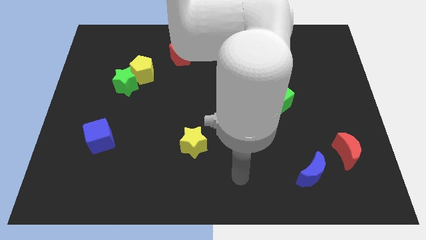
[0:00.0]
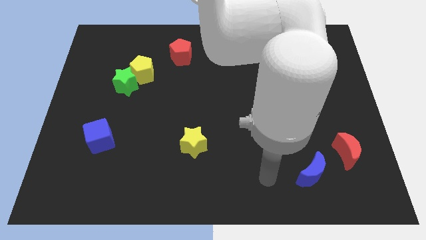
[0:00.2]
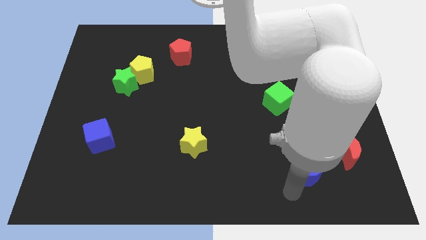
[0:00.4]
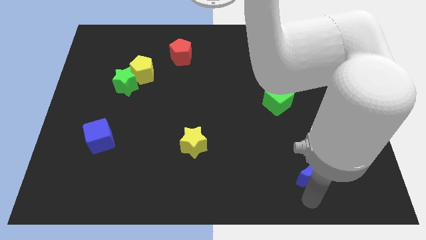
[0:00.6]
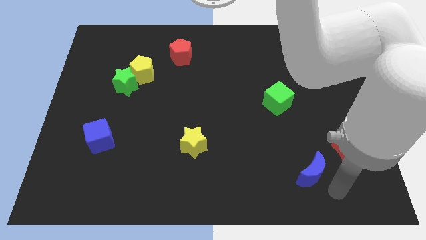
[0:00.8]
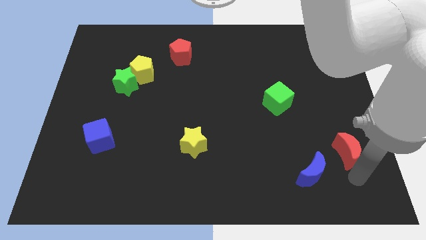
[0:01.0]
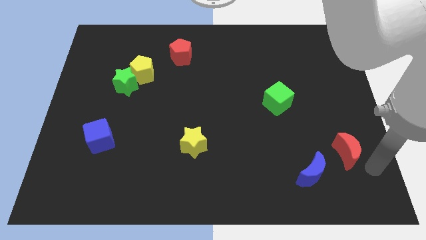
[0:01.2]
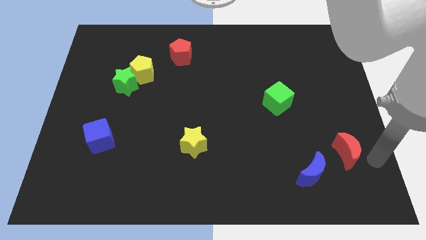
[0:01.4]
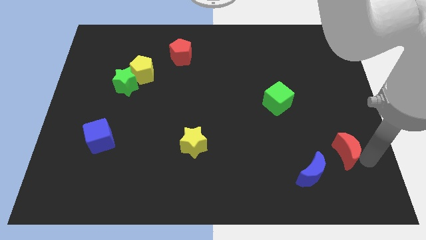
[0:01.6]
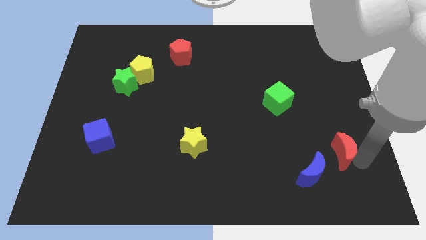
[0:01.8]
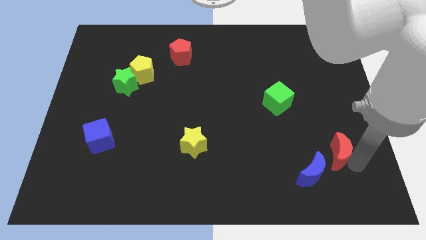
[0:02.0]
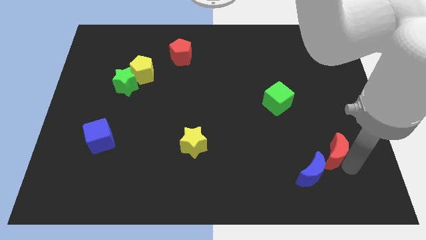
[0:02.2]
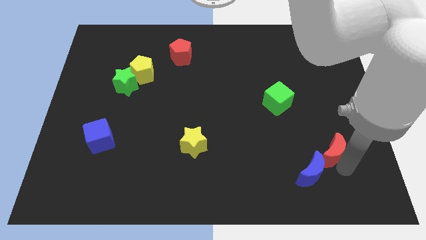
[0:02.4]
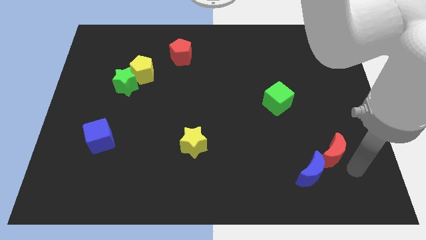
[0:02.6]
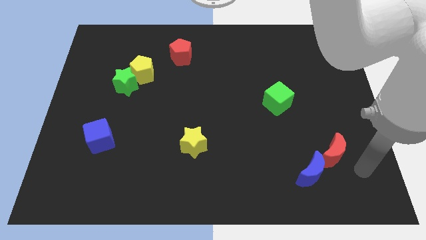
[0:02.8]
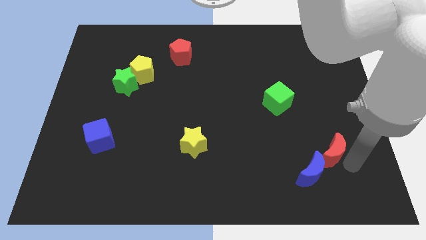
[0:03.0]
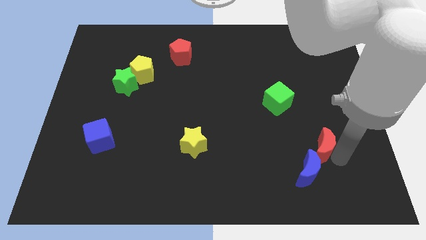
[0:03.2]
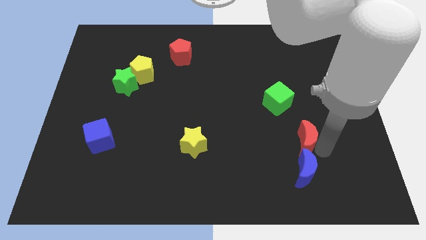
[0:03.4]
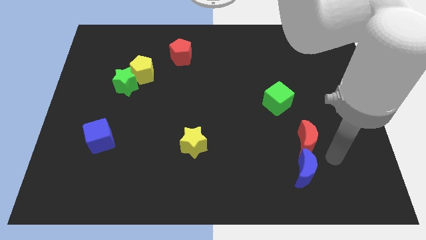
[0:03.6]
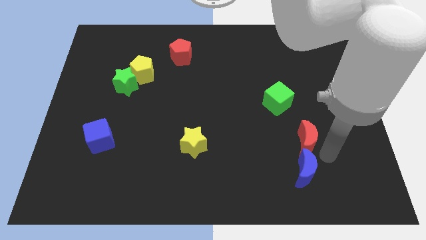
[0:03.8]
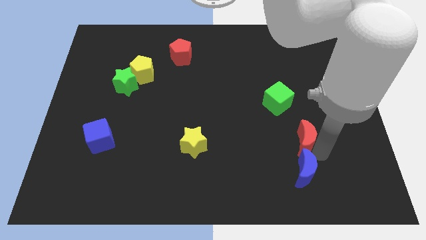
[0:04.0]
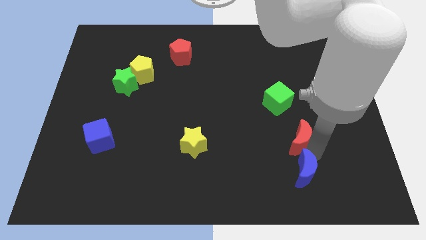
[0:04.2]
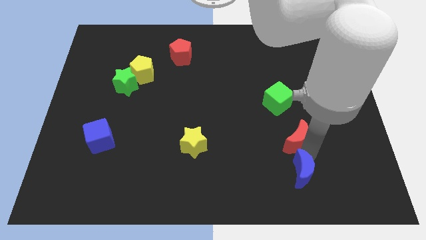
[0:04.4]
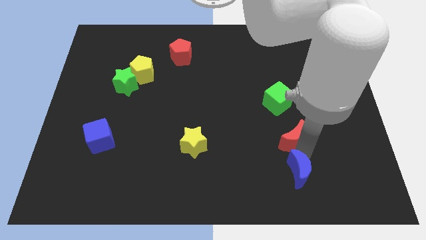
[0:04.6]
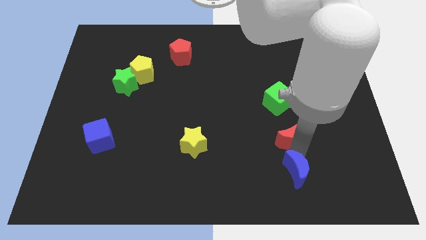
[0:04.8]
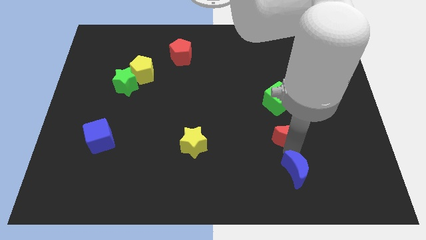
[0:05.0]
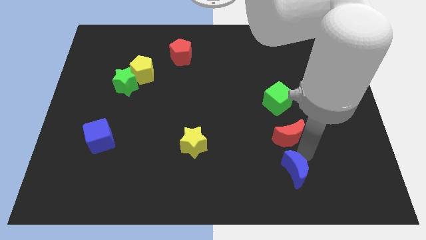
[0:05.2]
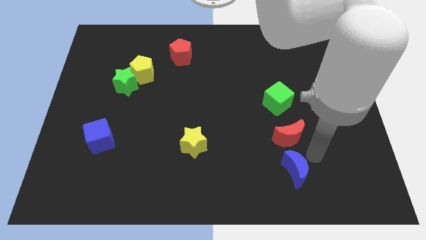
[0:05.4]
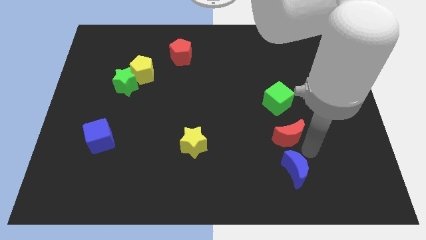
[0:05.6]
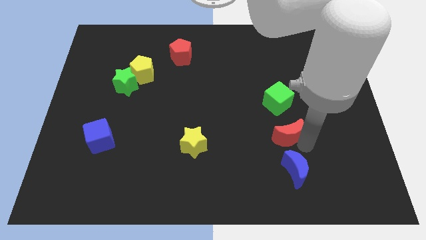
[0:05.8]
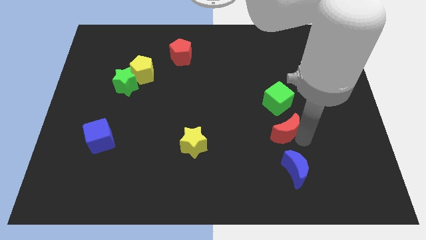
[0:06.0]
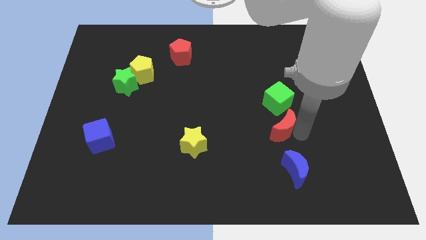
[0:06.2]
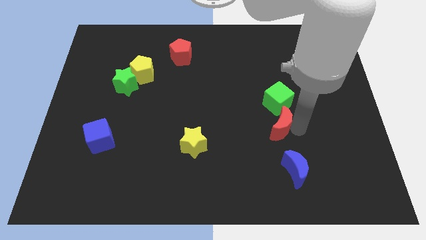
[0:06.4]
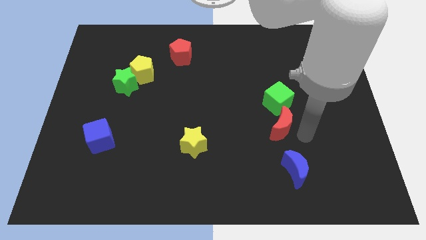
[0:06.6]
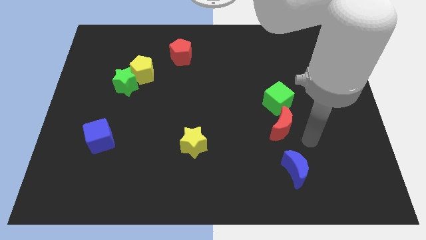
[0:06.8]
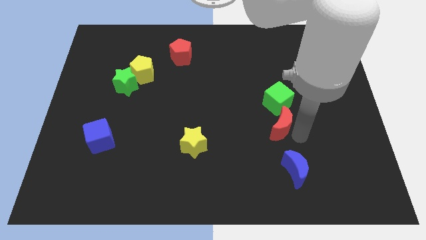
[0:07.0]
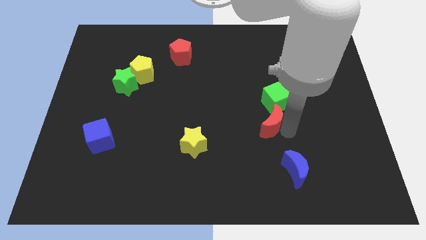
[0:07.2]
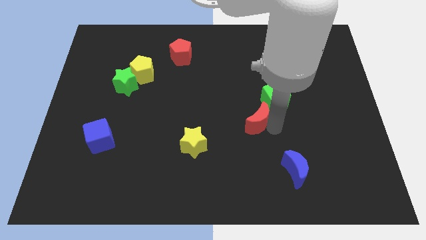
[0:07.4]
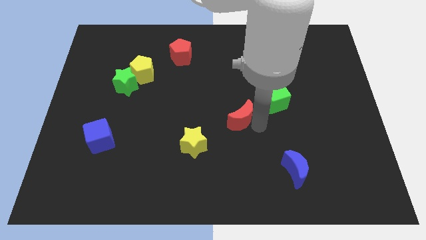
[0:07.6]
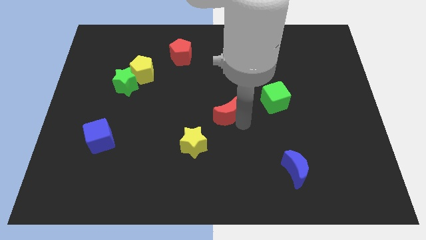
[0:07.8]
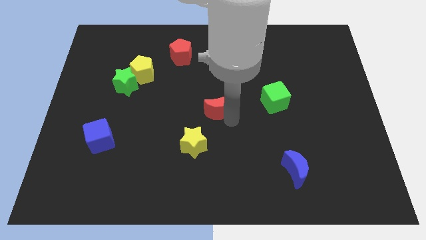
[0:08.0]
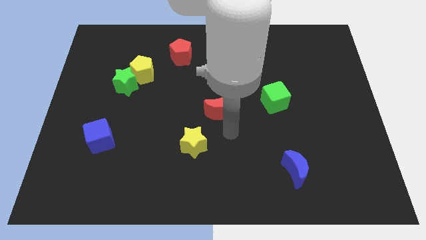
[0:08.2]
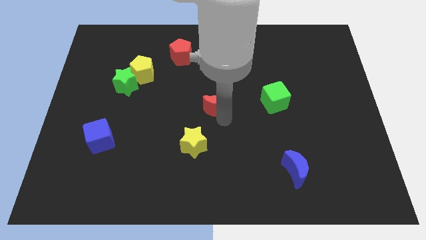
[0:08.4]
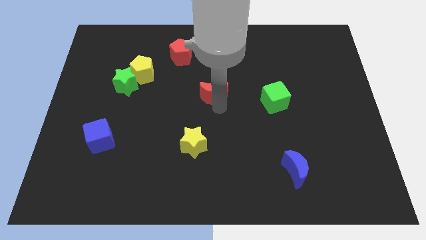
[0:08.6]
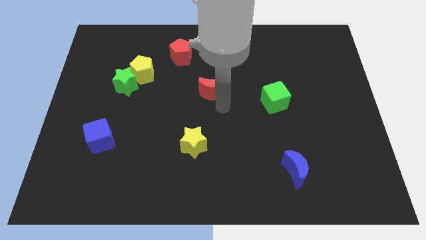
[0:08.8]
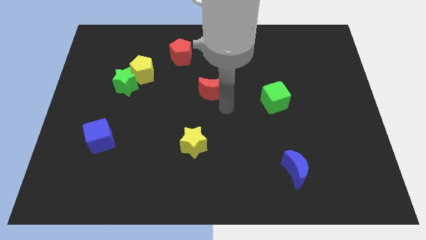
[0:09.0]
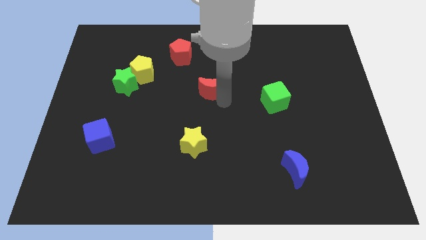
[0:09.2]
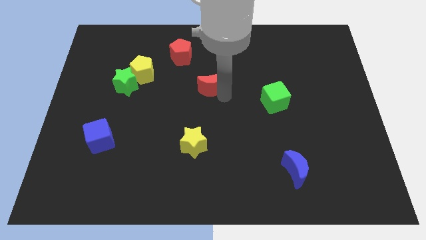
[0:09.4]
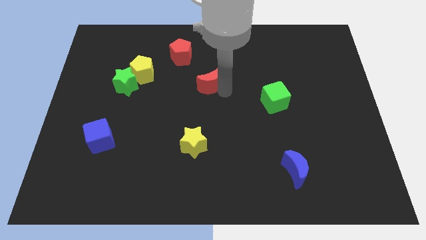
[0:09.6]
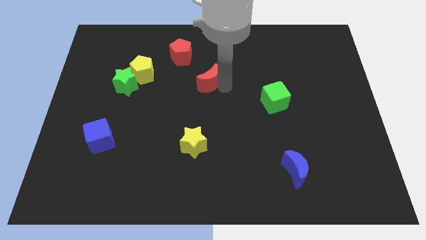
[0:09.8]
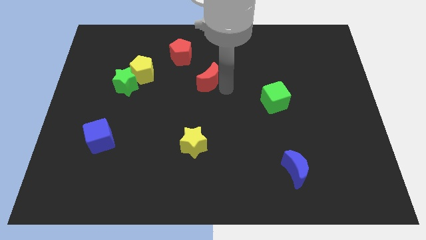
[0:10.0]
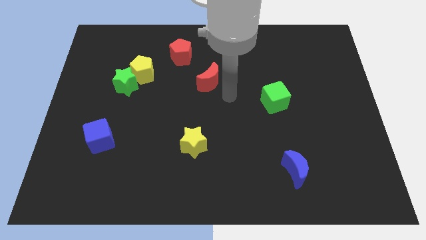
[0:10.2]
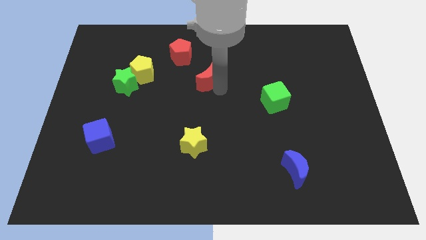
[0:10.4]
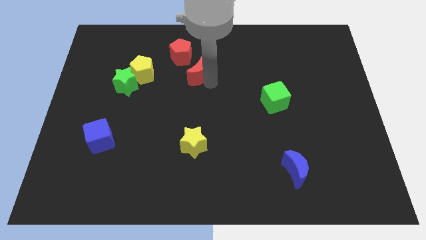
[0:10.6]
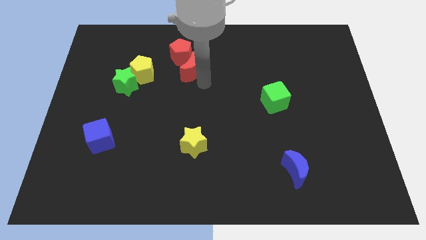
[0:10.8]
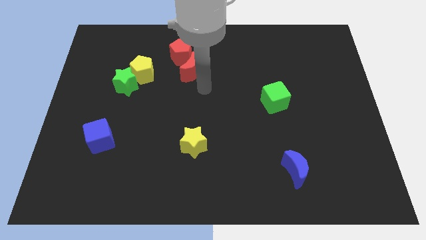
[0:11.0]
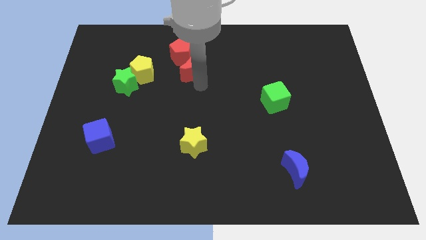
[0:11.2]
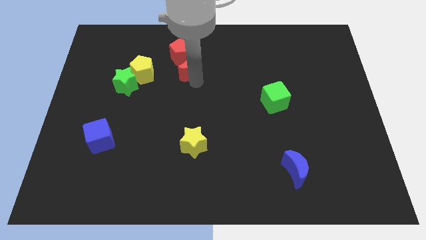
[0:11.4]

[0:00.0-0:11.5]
move the red moon towards the red pentagon

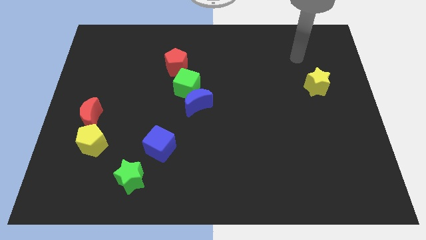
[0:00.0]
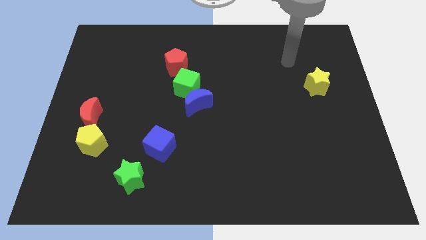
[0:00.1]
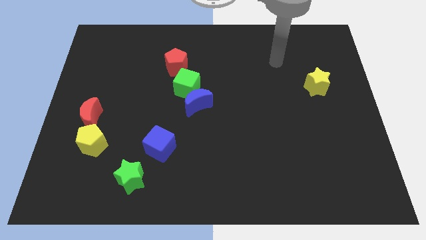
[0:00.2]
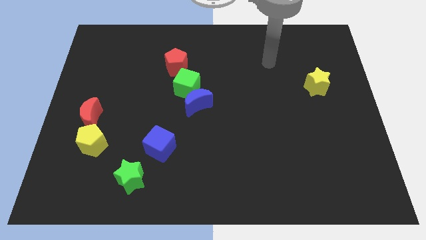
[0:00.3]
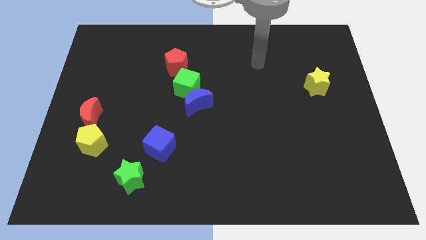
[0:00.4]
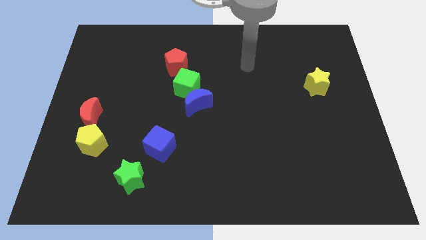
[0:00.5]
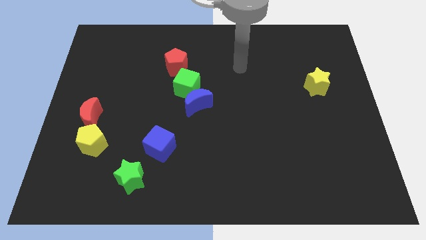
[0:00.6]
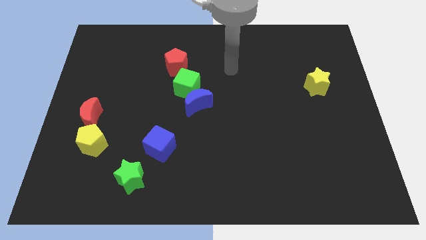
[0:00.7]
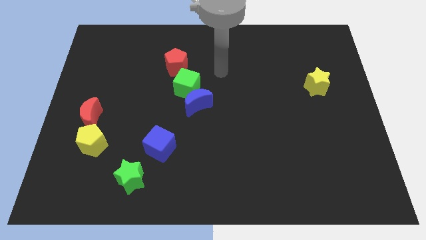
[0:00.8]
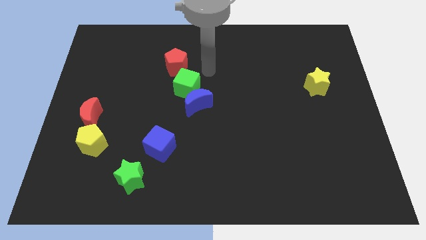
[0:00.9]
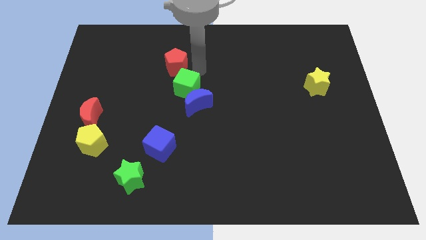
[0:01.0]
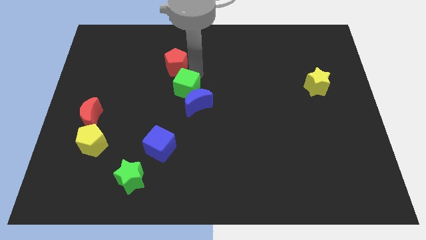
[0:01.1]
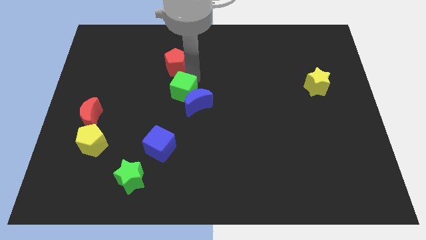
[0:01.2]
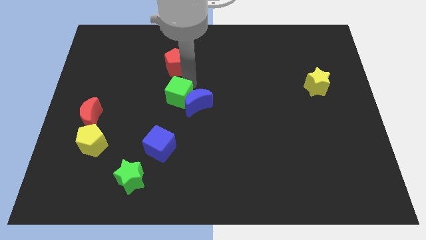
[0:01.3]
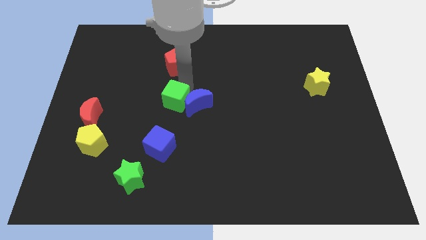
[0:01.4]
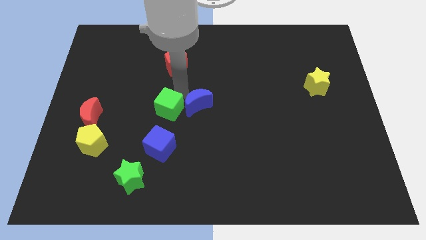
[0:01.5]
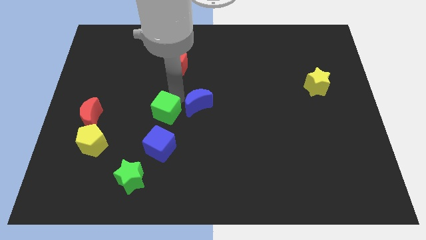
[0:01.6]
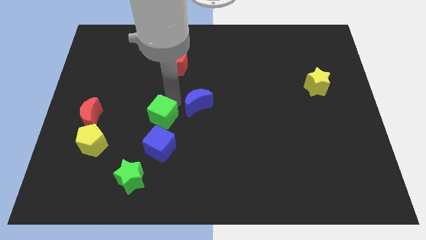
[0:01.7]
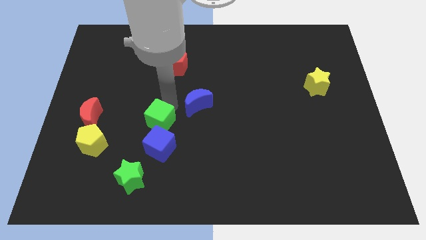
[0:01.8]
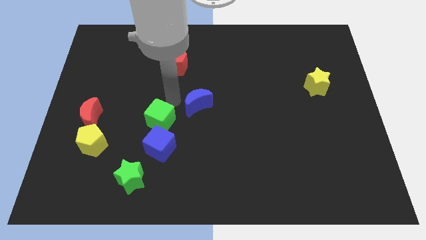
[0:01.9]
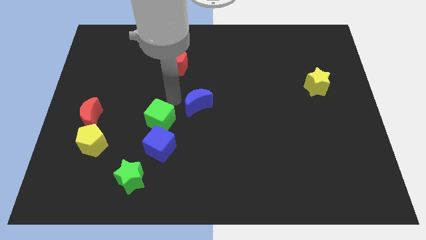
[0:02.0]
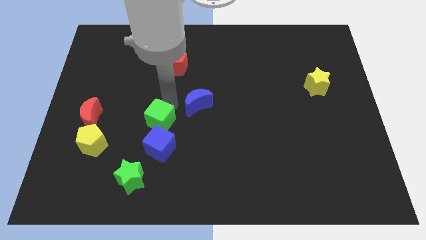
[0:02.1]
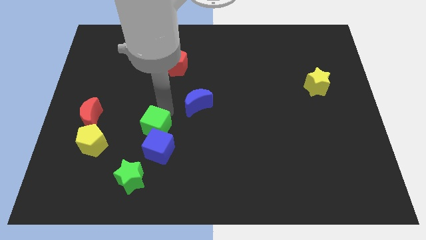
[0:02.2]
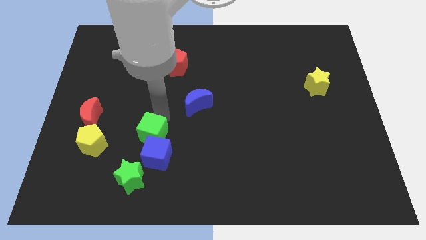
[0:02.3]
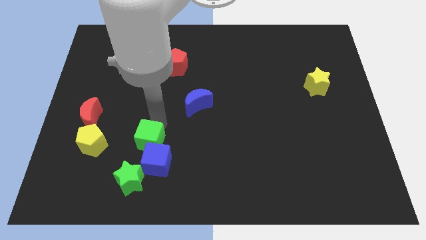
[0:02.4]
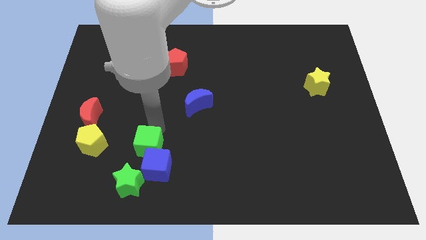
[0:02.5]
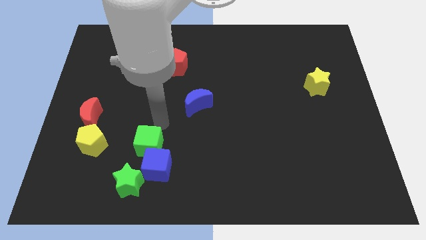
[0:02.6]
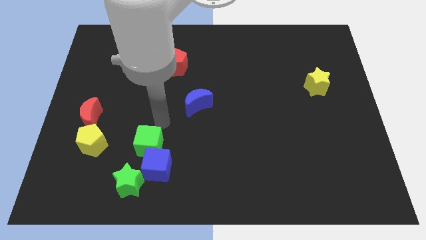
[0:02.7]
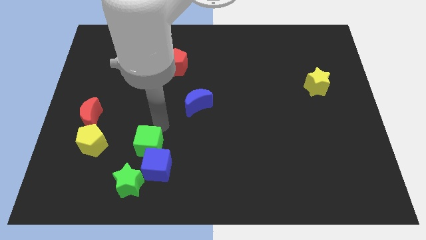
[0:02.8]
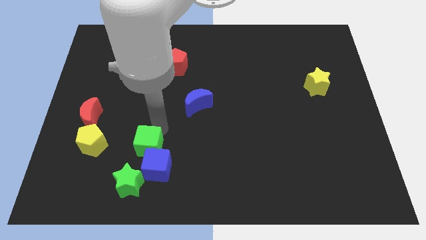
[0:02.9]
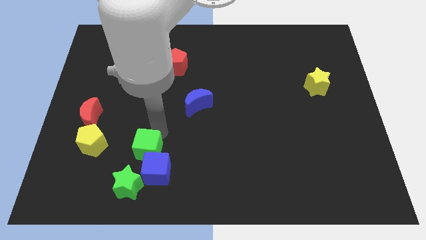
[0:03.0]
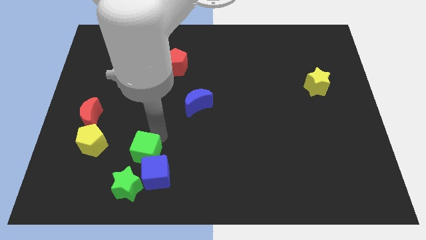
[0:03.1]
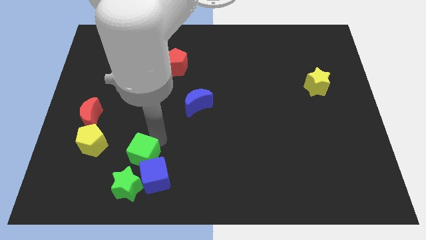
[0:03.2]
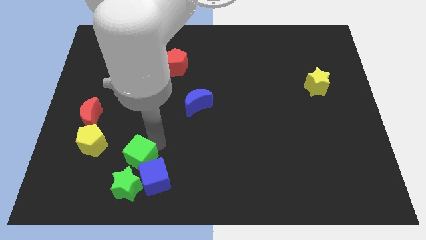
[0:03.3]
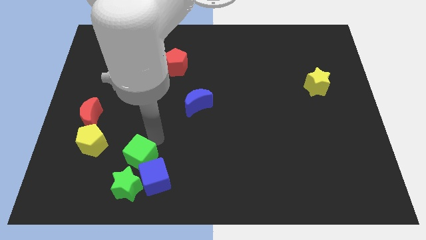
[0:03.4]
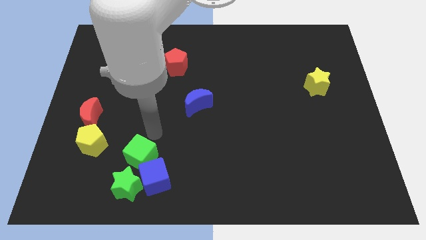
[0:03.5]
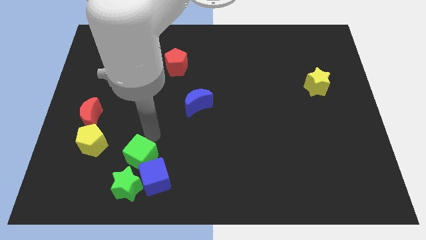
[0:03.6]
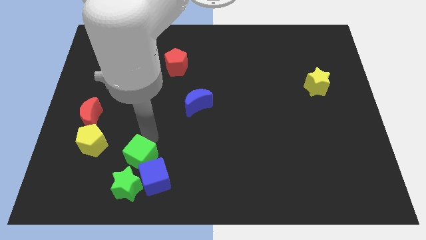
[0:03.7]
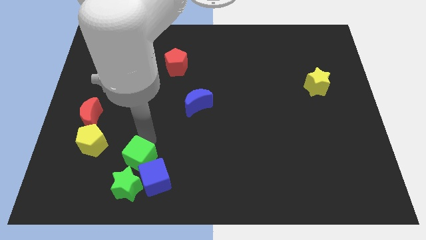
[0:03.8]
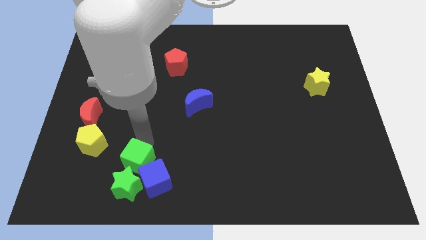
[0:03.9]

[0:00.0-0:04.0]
move the green cube close to the green star
